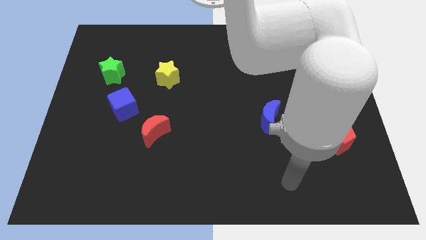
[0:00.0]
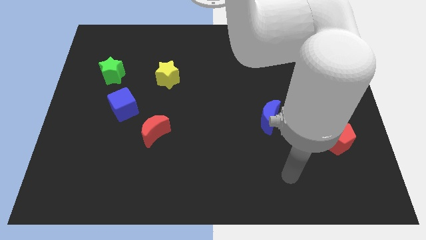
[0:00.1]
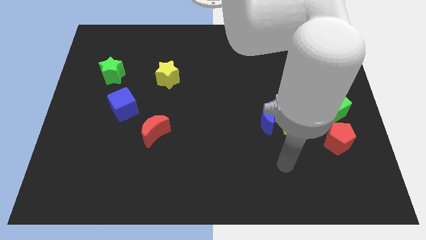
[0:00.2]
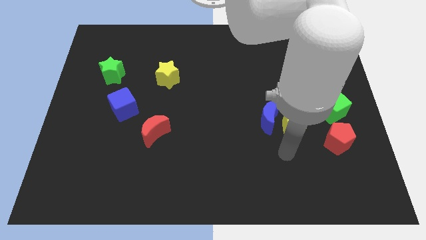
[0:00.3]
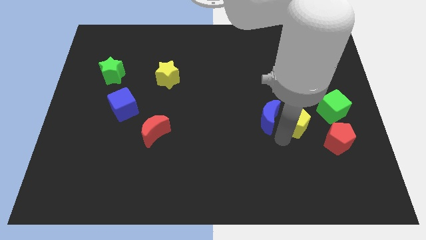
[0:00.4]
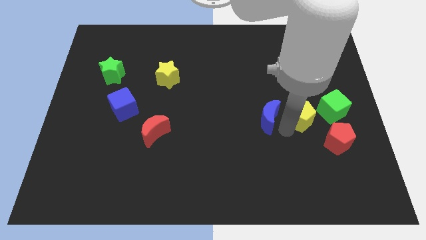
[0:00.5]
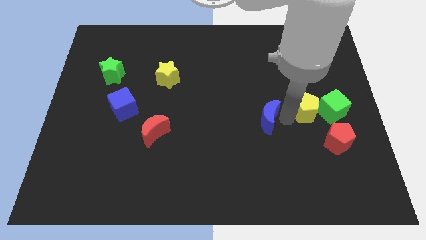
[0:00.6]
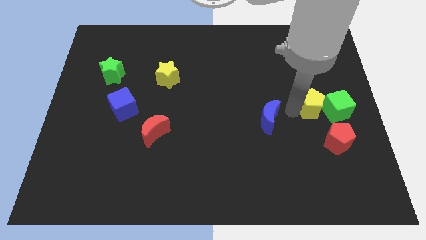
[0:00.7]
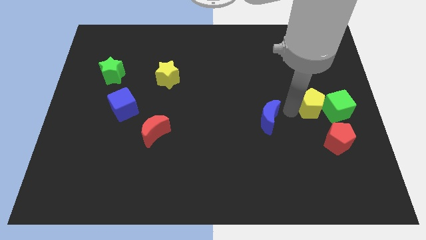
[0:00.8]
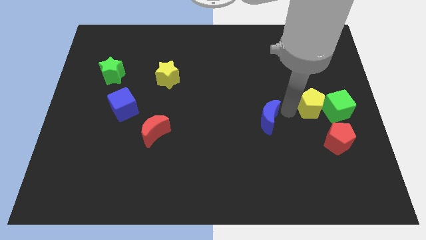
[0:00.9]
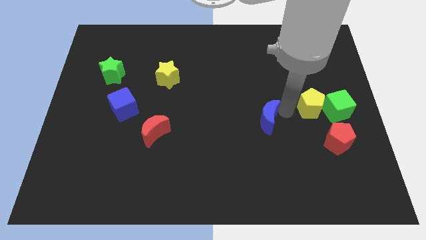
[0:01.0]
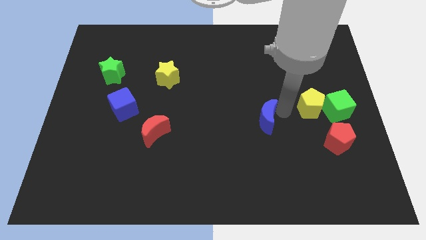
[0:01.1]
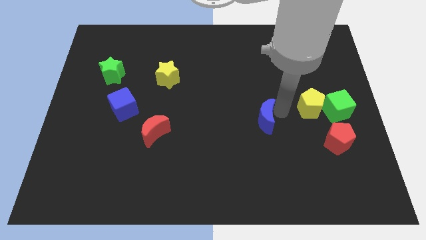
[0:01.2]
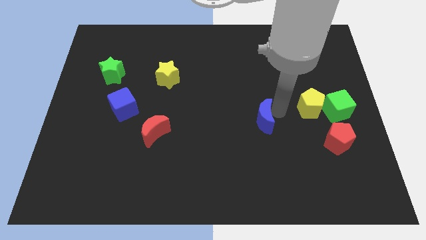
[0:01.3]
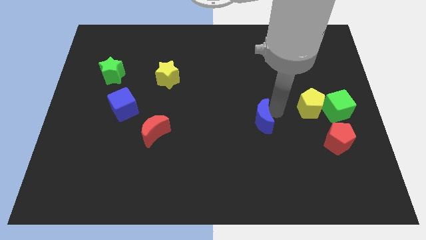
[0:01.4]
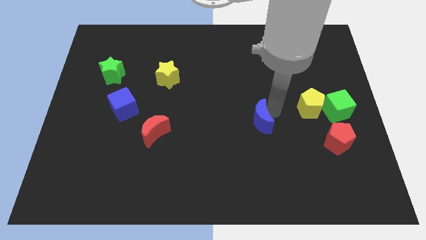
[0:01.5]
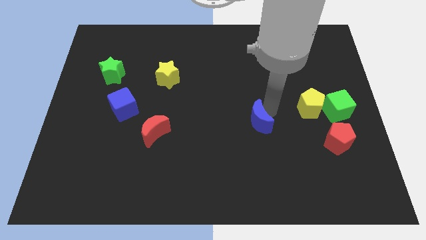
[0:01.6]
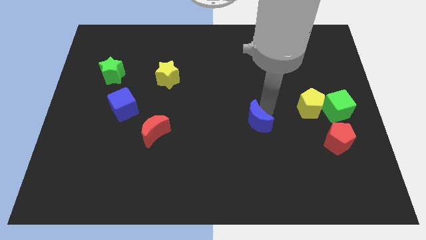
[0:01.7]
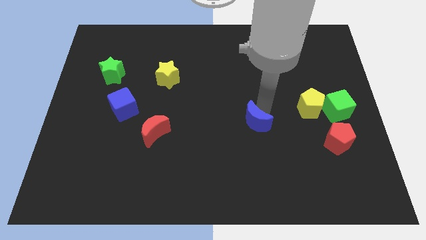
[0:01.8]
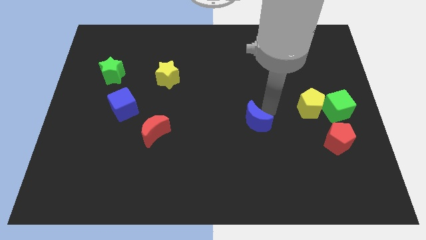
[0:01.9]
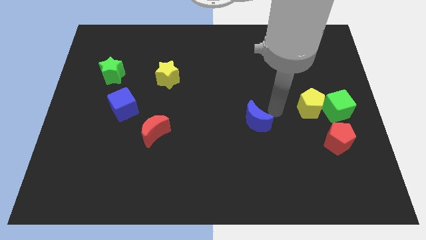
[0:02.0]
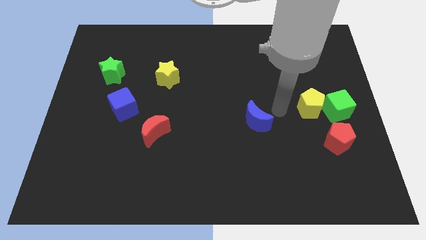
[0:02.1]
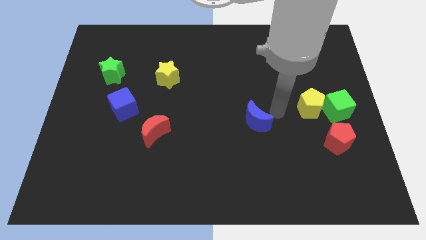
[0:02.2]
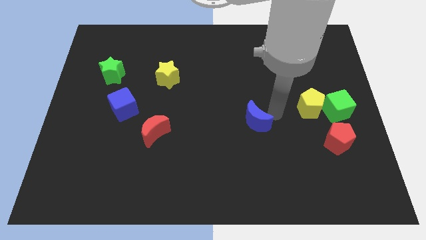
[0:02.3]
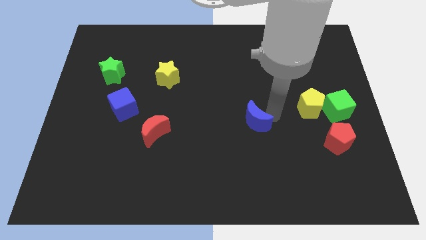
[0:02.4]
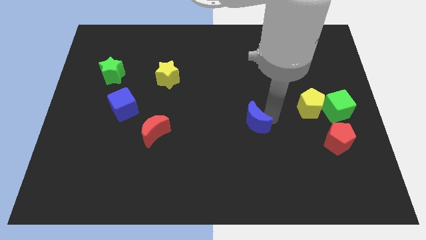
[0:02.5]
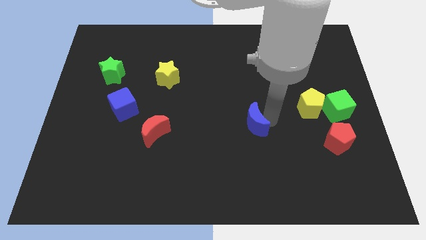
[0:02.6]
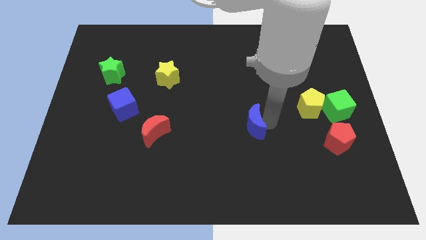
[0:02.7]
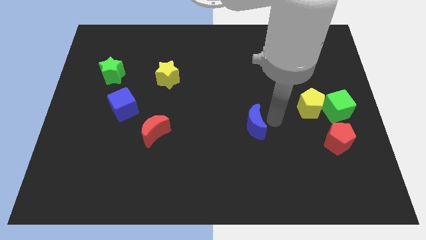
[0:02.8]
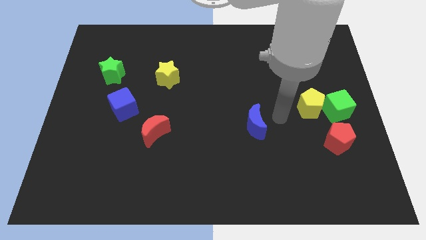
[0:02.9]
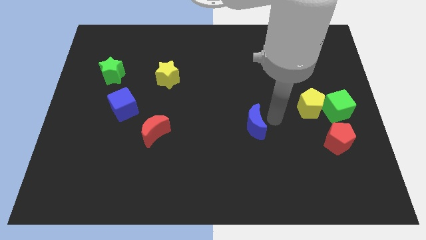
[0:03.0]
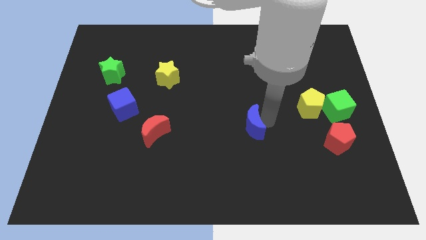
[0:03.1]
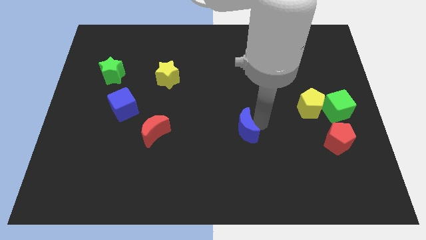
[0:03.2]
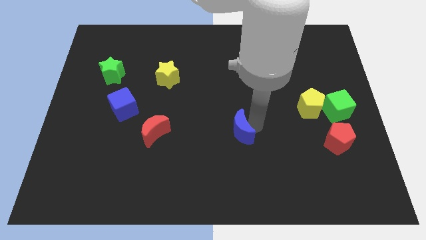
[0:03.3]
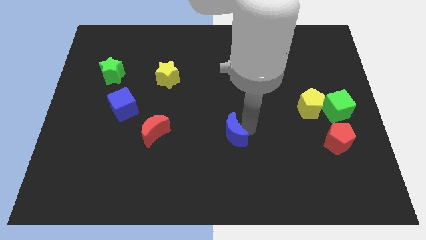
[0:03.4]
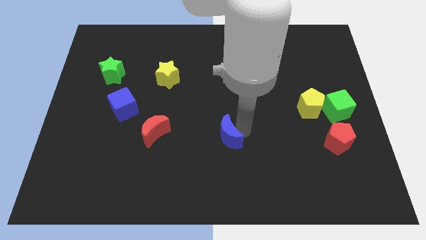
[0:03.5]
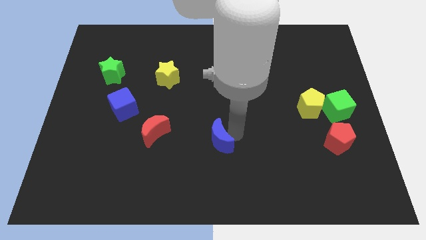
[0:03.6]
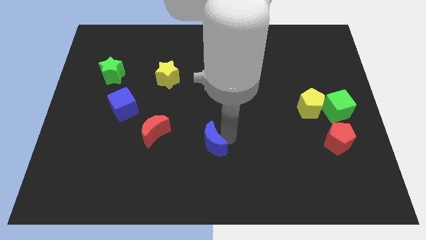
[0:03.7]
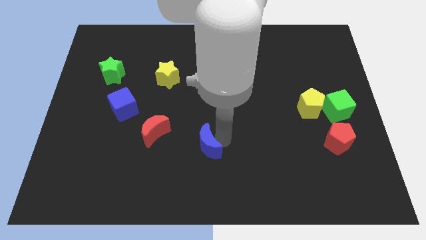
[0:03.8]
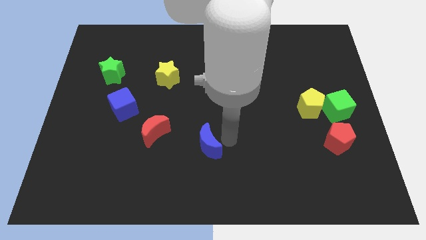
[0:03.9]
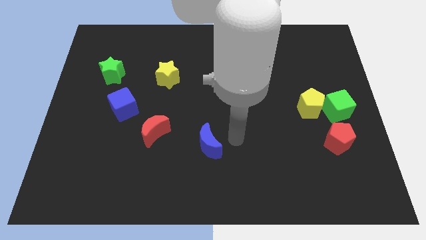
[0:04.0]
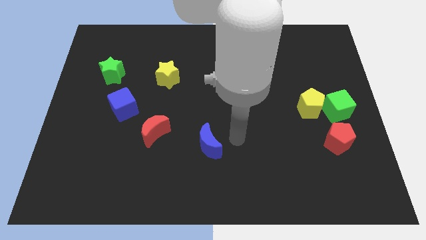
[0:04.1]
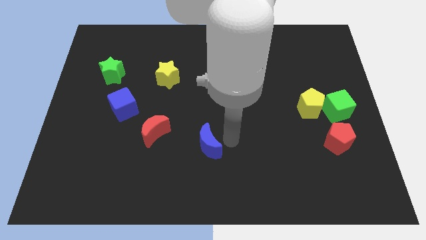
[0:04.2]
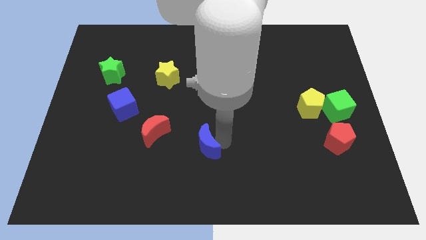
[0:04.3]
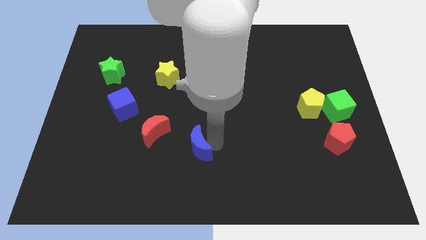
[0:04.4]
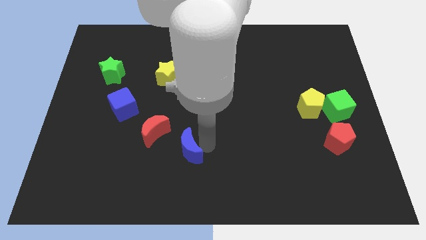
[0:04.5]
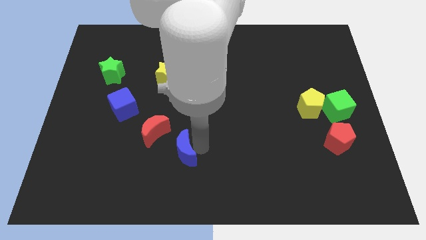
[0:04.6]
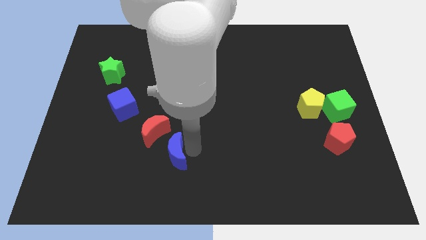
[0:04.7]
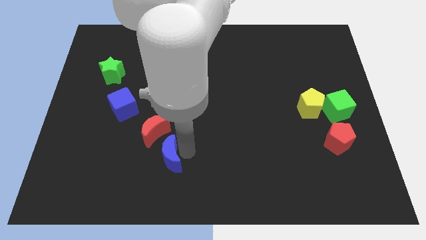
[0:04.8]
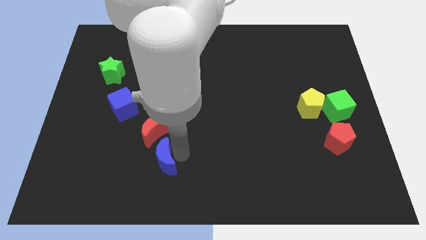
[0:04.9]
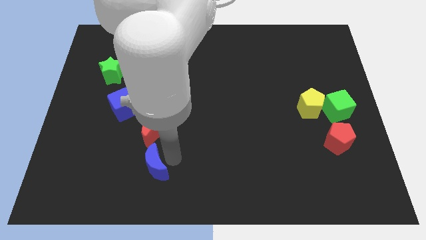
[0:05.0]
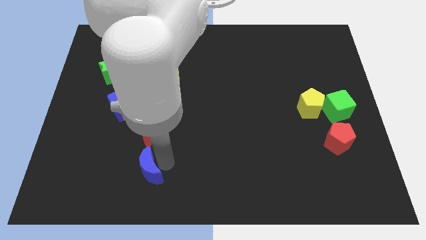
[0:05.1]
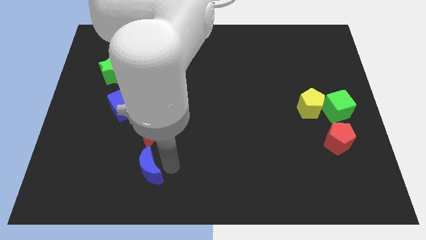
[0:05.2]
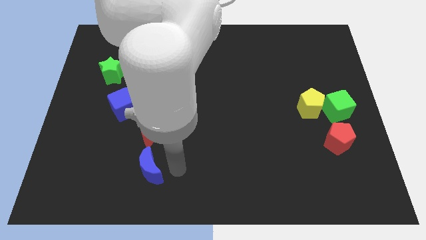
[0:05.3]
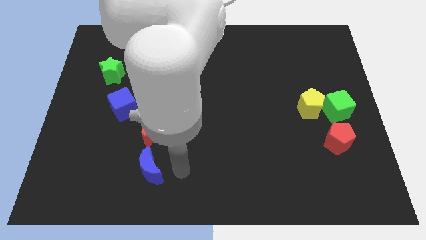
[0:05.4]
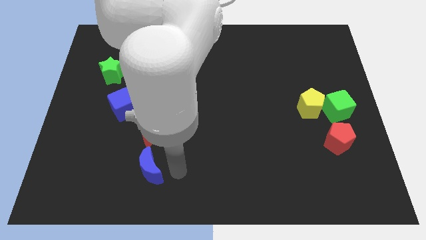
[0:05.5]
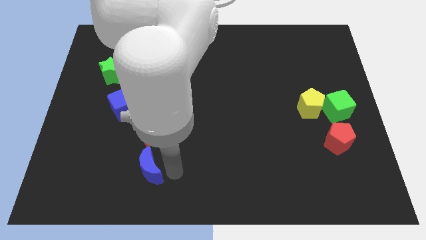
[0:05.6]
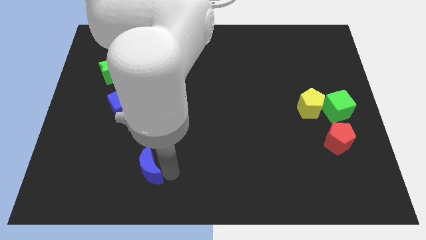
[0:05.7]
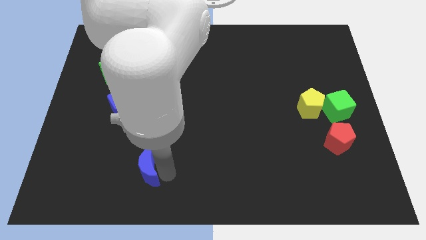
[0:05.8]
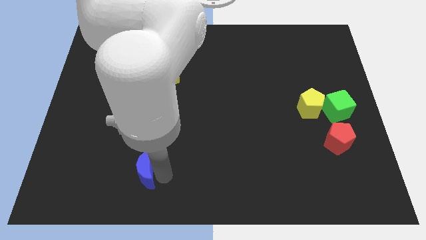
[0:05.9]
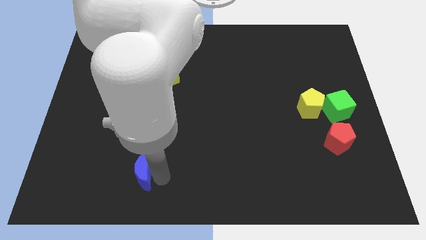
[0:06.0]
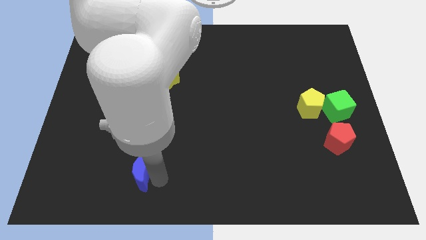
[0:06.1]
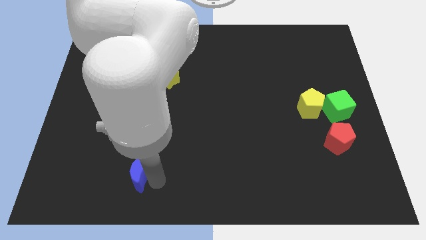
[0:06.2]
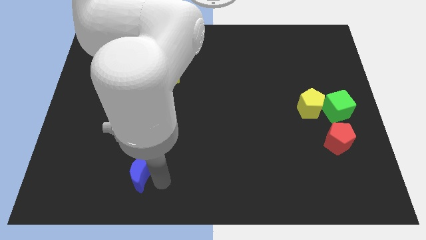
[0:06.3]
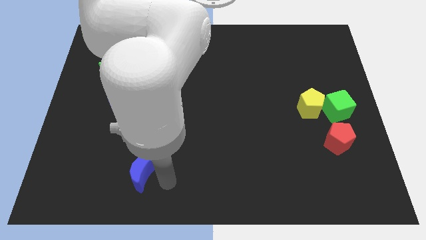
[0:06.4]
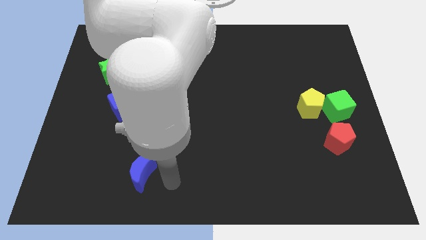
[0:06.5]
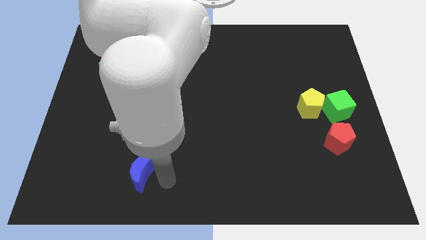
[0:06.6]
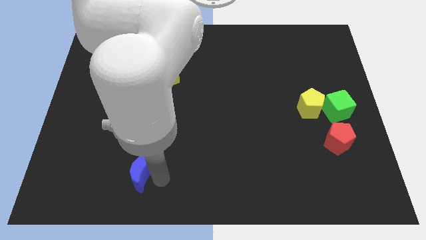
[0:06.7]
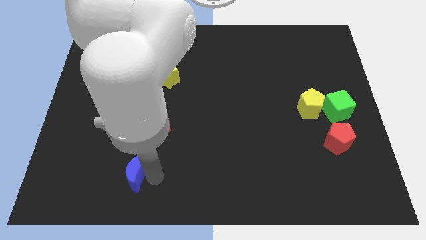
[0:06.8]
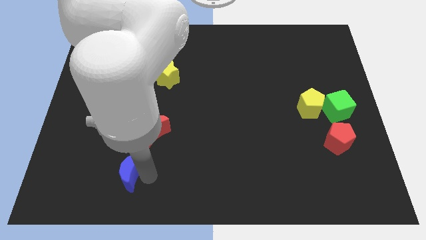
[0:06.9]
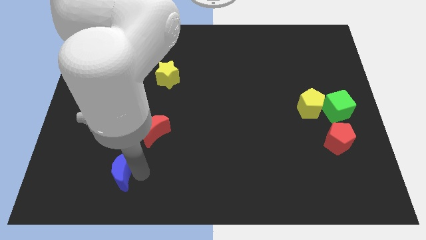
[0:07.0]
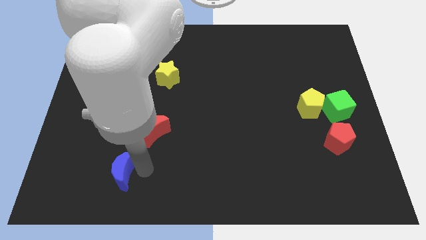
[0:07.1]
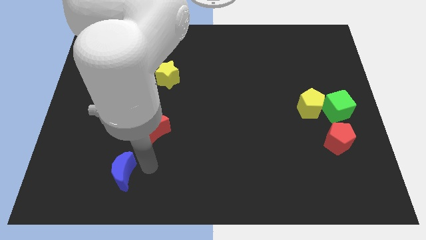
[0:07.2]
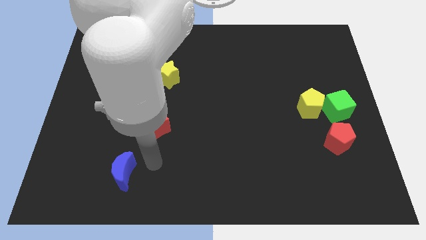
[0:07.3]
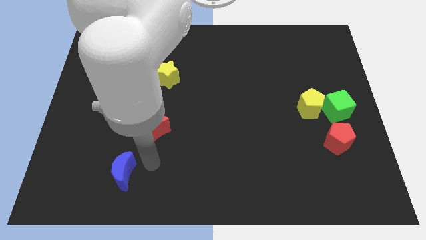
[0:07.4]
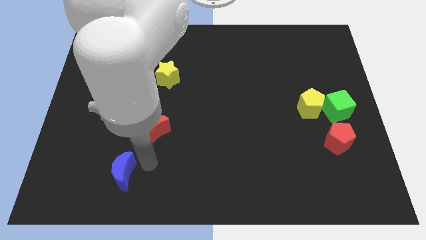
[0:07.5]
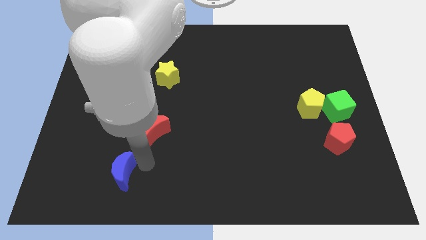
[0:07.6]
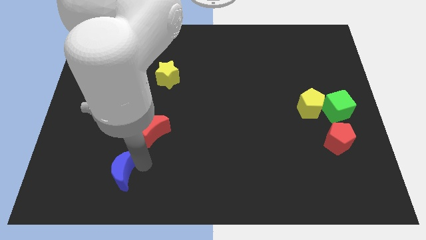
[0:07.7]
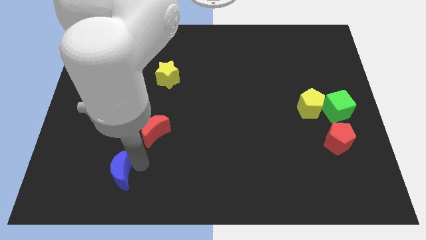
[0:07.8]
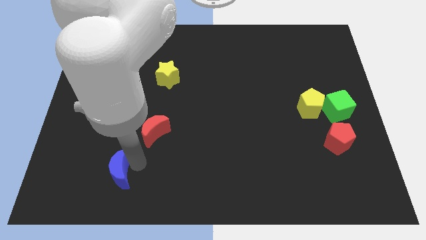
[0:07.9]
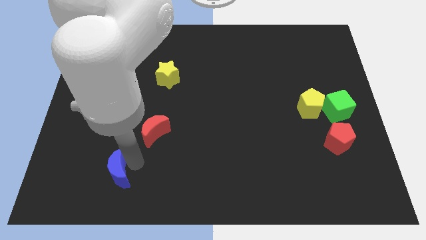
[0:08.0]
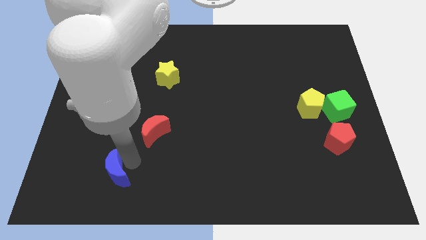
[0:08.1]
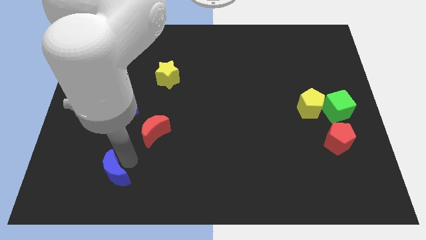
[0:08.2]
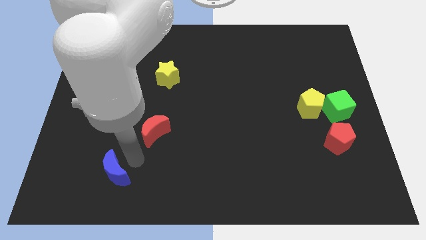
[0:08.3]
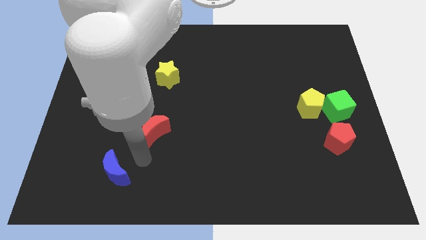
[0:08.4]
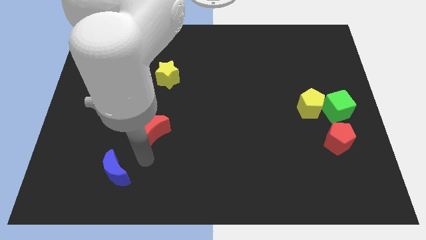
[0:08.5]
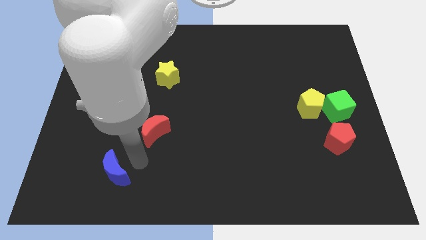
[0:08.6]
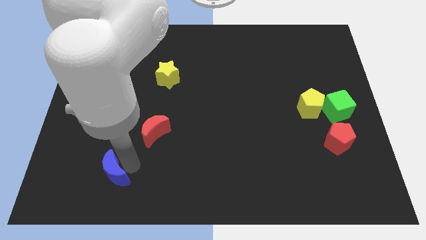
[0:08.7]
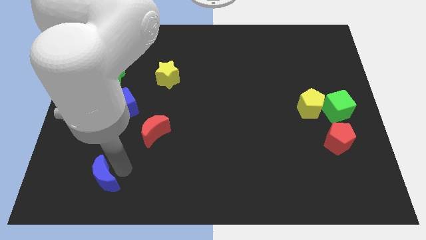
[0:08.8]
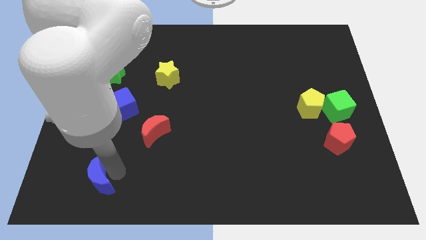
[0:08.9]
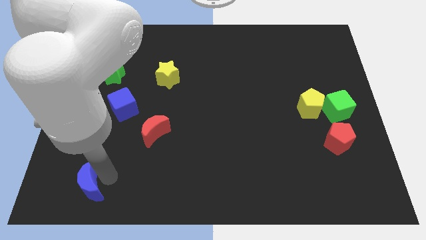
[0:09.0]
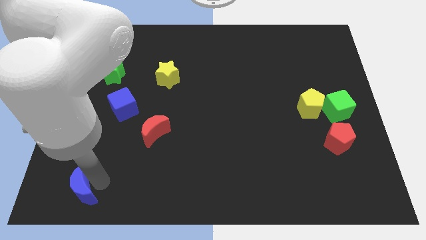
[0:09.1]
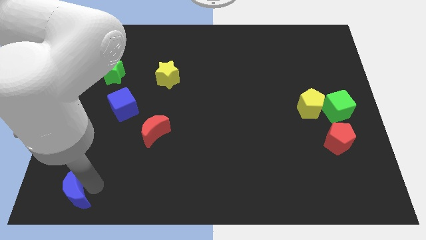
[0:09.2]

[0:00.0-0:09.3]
push the blue moon to the bottom left of the board
